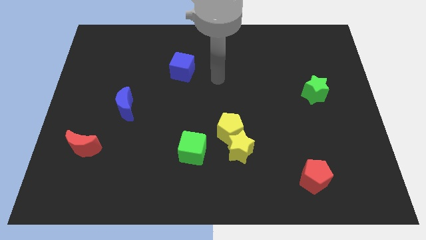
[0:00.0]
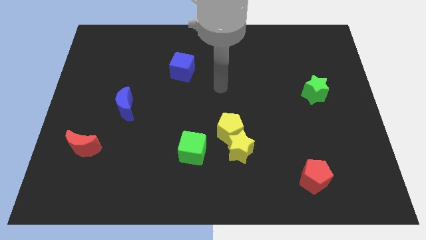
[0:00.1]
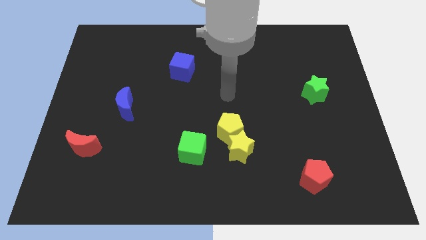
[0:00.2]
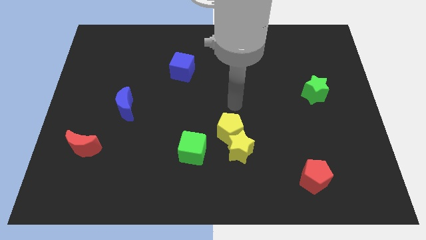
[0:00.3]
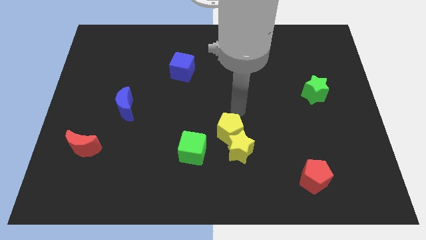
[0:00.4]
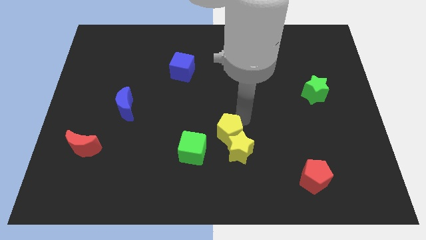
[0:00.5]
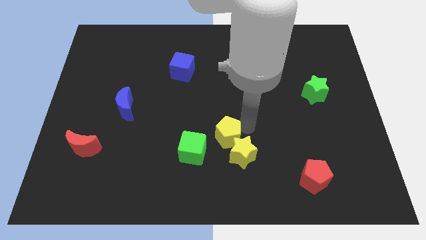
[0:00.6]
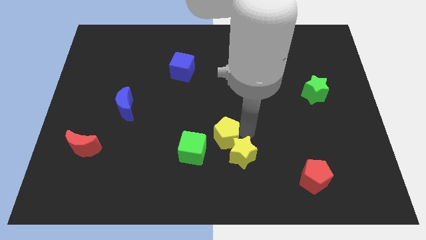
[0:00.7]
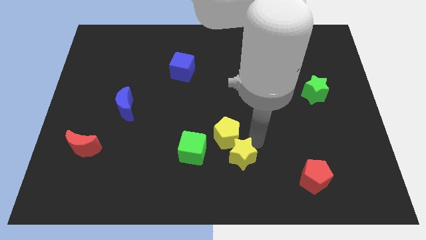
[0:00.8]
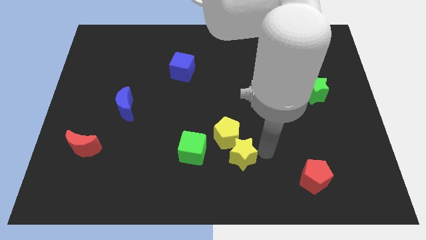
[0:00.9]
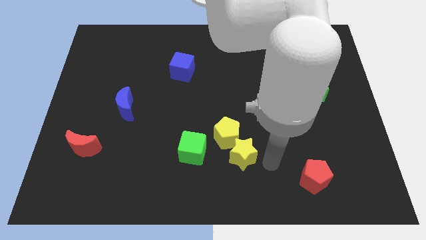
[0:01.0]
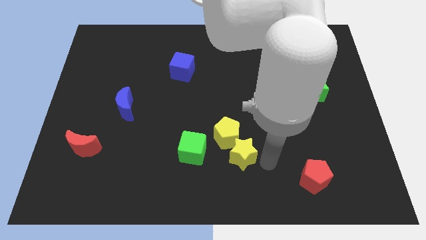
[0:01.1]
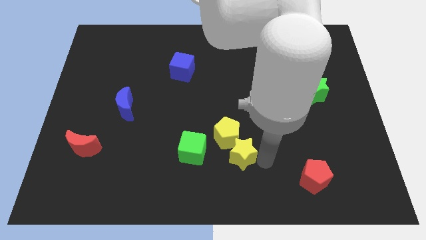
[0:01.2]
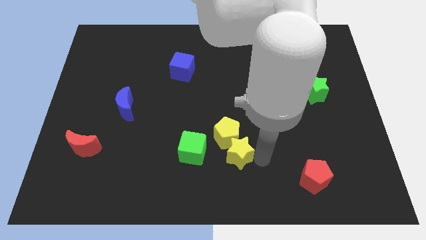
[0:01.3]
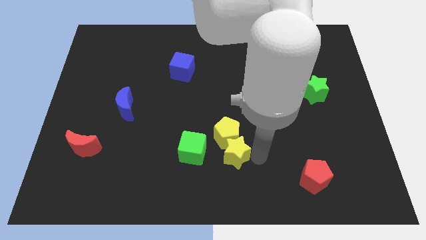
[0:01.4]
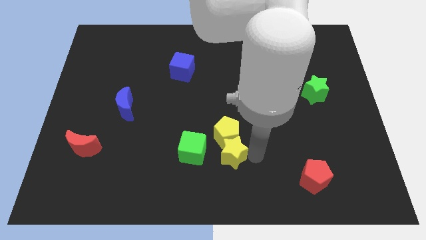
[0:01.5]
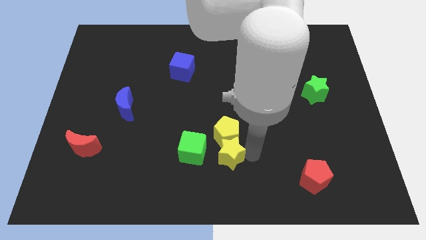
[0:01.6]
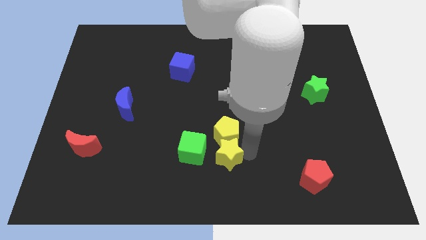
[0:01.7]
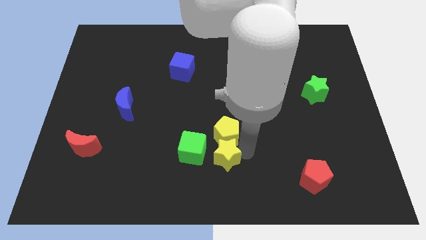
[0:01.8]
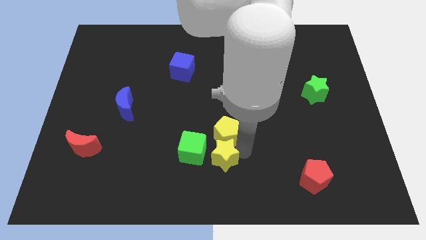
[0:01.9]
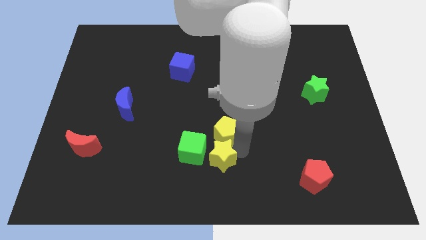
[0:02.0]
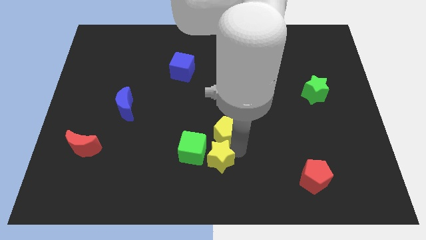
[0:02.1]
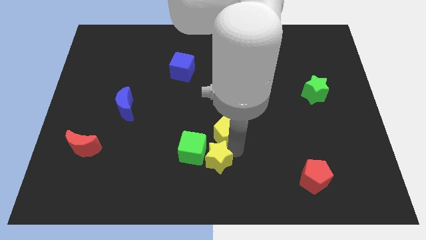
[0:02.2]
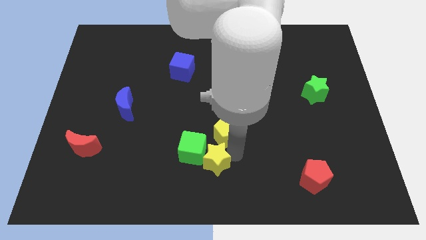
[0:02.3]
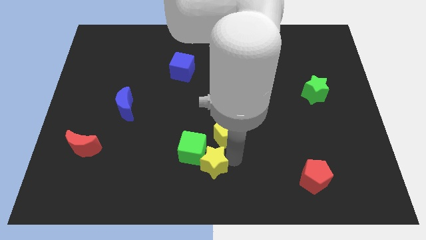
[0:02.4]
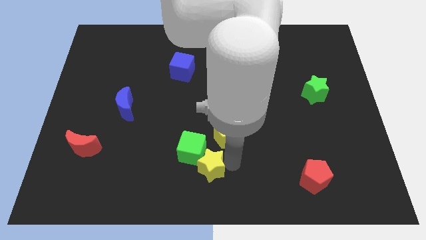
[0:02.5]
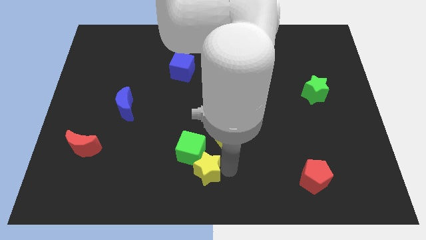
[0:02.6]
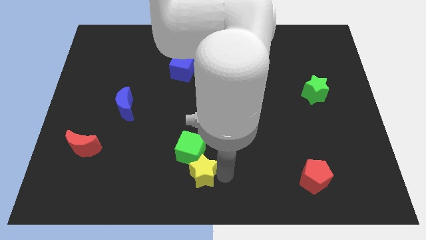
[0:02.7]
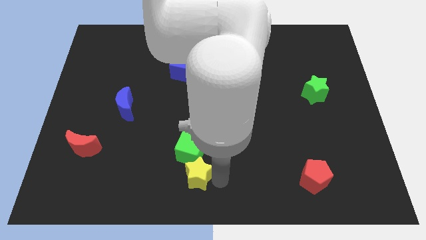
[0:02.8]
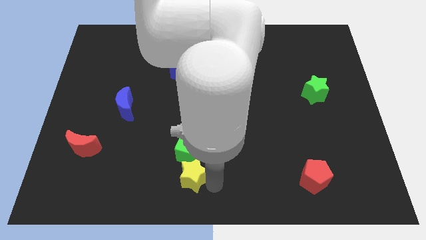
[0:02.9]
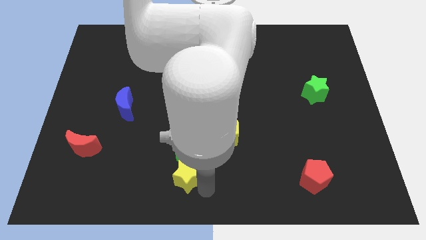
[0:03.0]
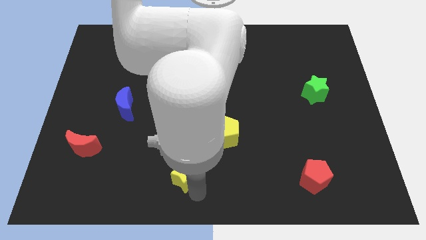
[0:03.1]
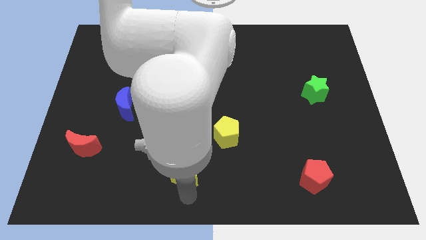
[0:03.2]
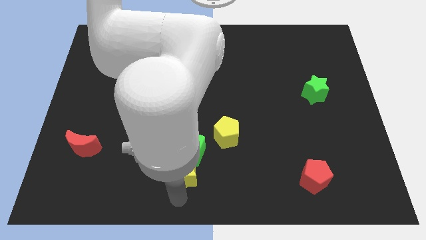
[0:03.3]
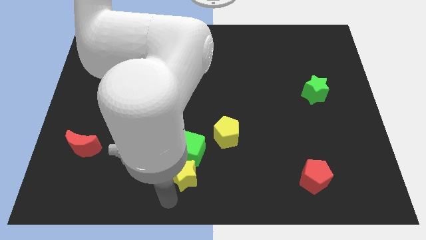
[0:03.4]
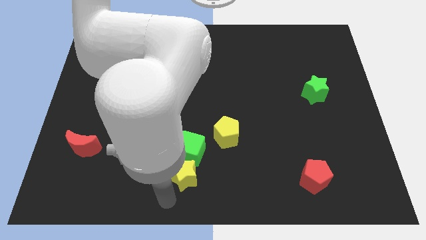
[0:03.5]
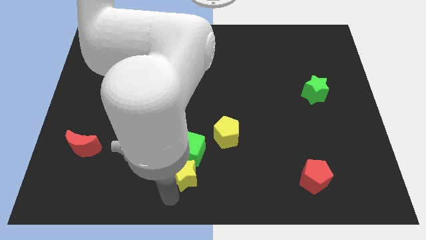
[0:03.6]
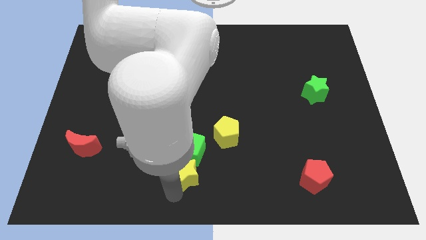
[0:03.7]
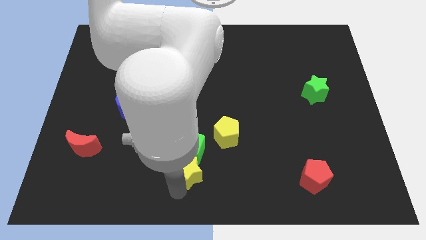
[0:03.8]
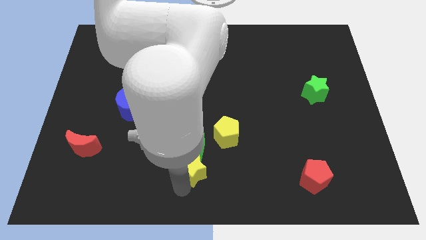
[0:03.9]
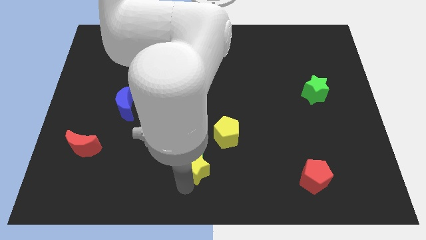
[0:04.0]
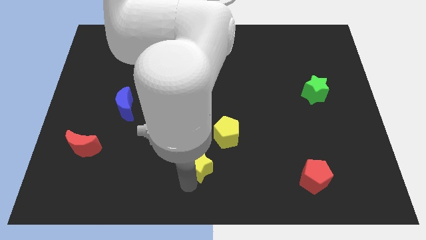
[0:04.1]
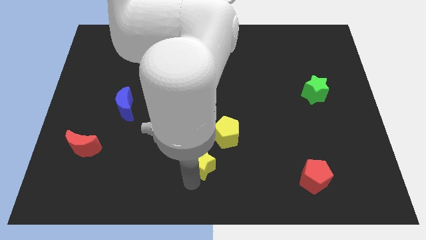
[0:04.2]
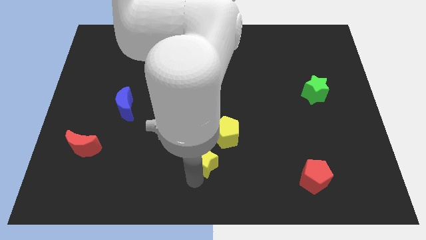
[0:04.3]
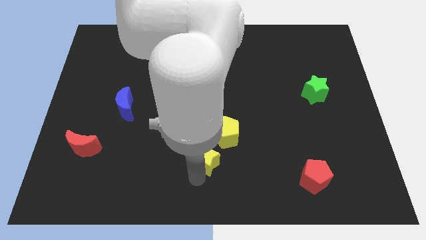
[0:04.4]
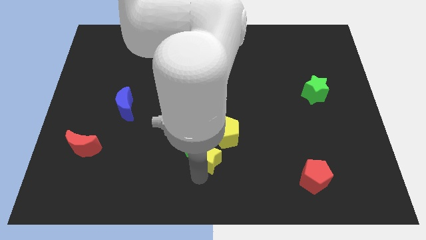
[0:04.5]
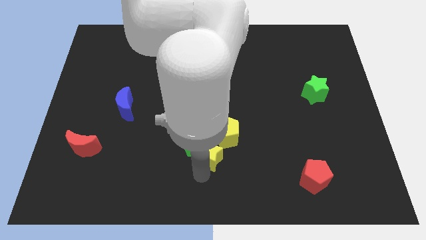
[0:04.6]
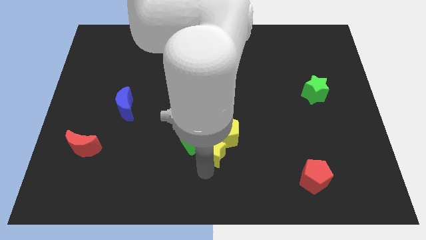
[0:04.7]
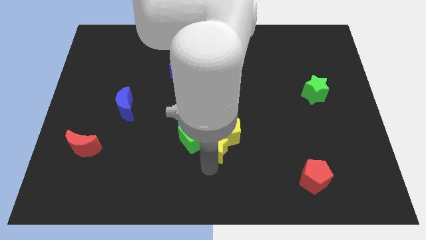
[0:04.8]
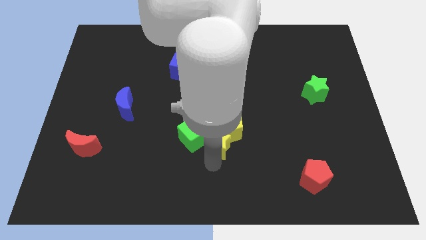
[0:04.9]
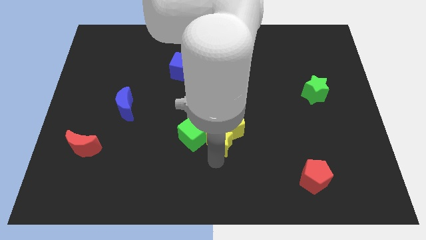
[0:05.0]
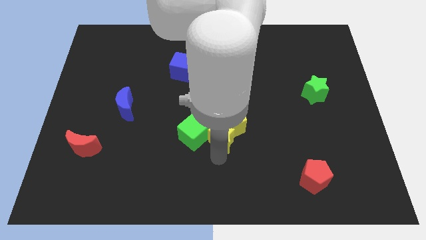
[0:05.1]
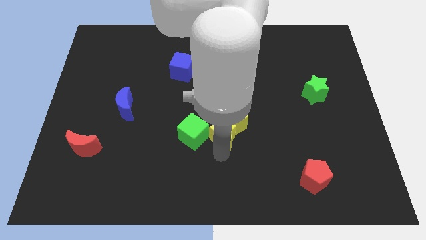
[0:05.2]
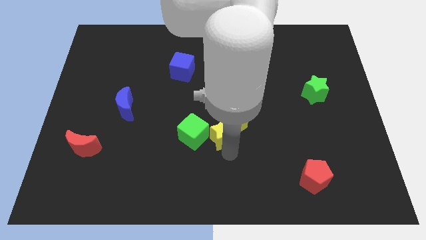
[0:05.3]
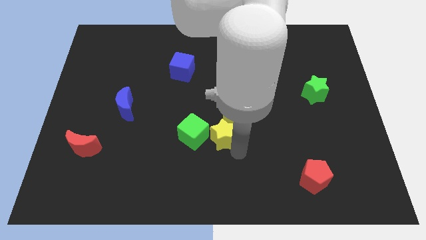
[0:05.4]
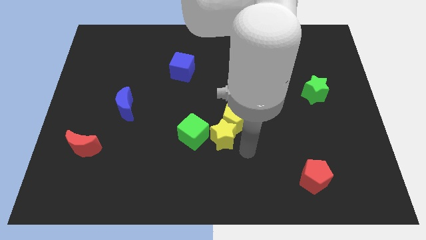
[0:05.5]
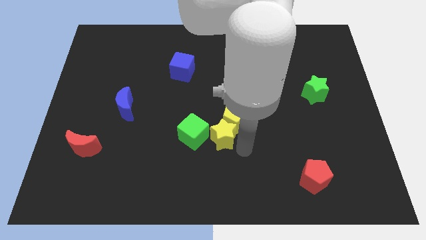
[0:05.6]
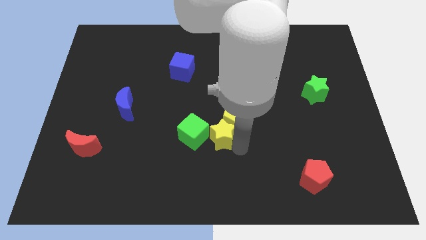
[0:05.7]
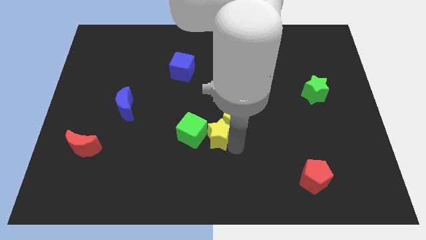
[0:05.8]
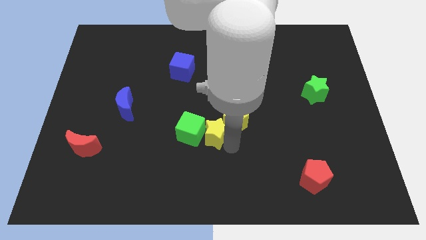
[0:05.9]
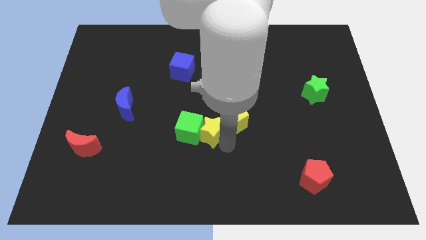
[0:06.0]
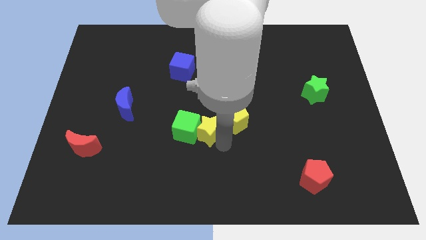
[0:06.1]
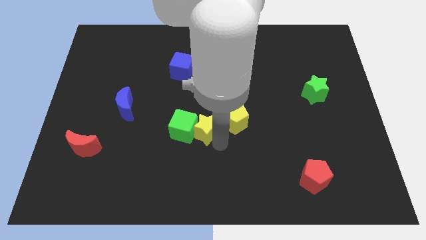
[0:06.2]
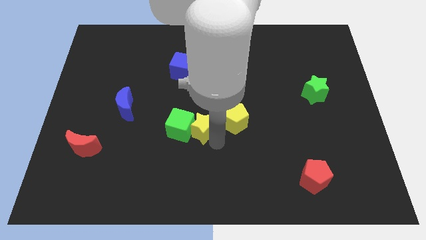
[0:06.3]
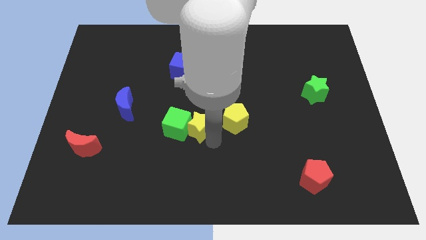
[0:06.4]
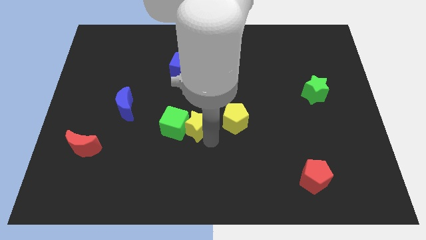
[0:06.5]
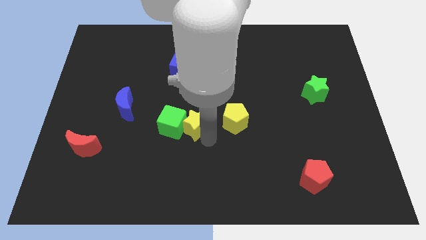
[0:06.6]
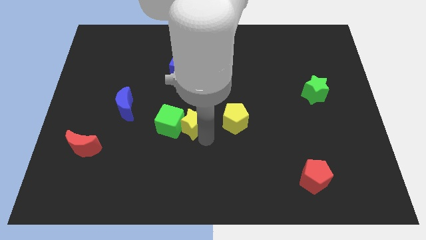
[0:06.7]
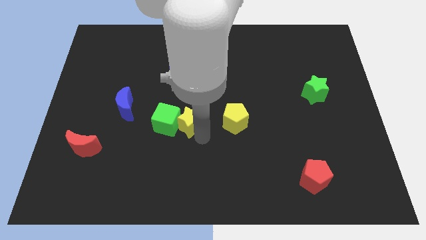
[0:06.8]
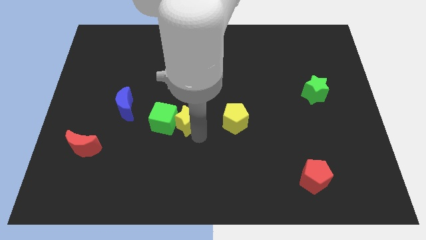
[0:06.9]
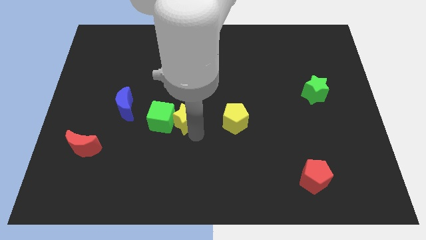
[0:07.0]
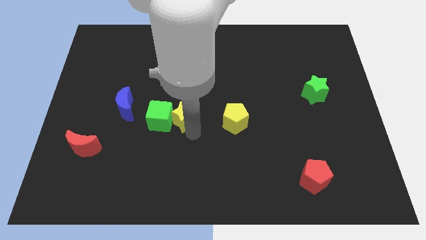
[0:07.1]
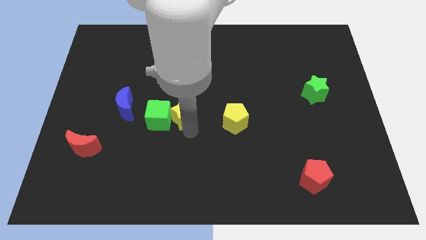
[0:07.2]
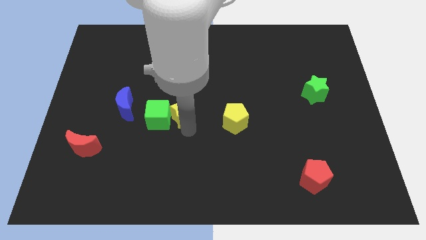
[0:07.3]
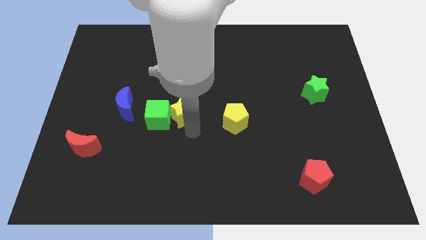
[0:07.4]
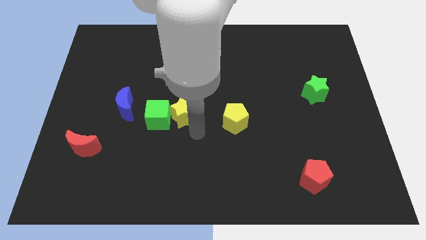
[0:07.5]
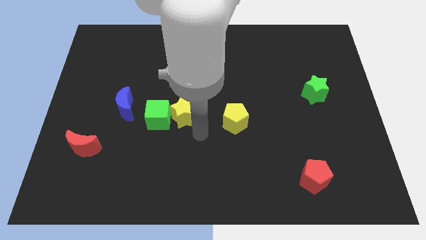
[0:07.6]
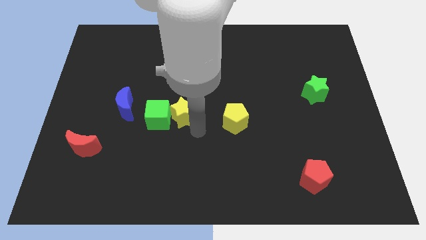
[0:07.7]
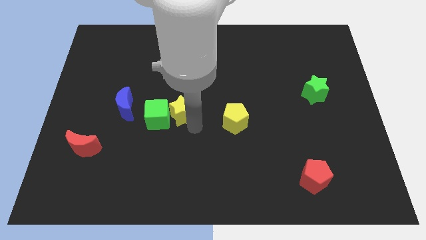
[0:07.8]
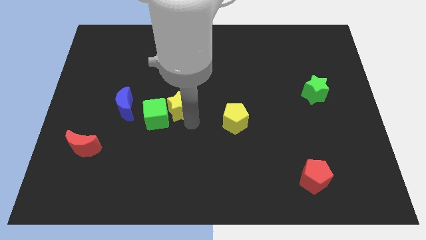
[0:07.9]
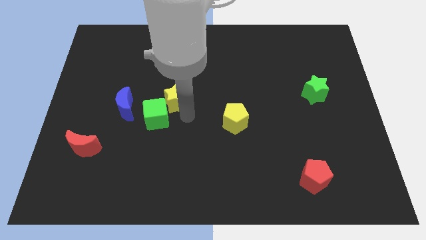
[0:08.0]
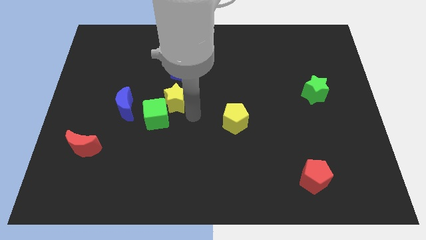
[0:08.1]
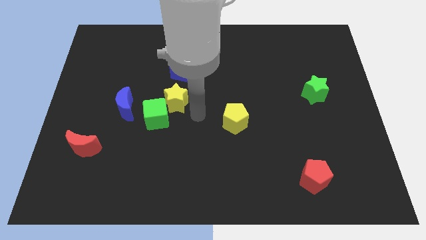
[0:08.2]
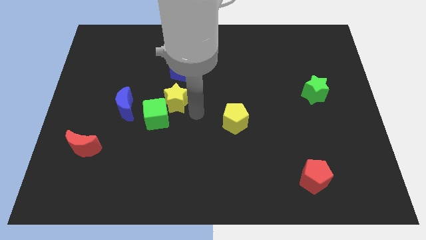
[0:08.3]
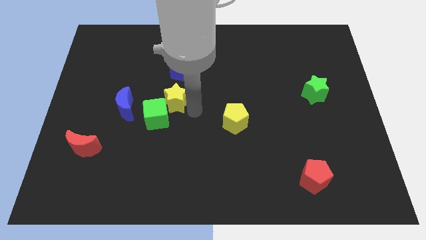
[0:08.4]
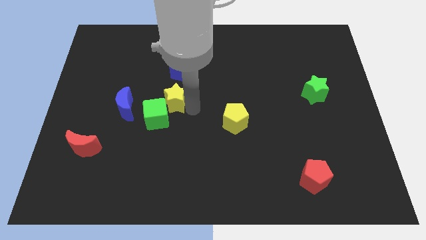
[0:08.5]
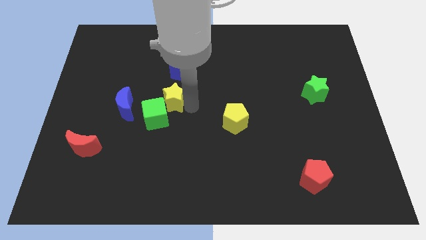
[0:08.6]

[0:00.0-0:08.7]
slide the yellow star upwards and to the left diagonally
